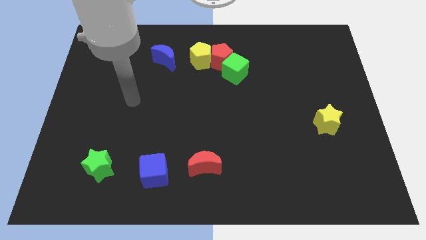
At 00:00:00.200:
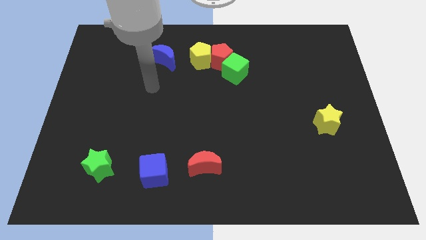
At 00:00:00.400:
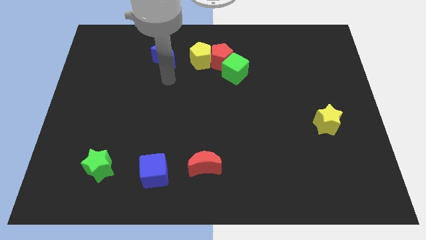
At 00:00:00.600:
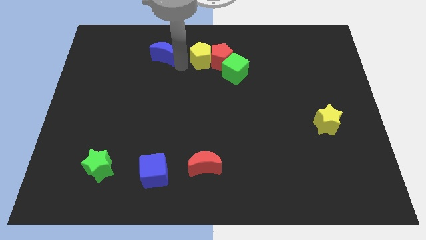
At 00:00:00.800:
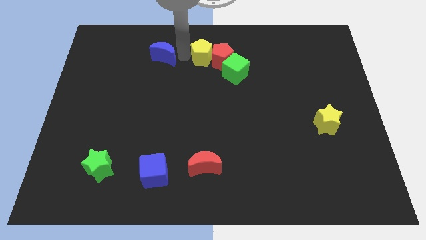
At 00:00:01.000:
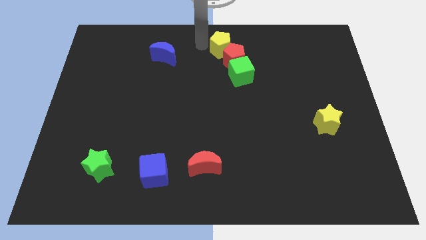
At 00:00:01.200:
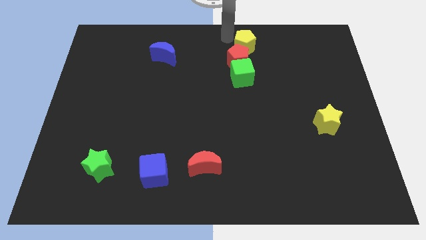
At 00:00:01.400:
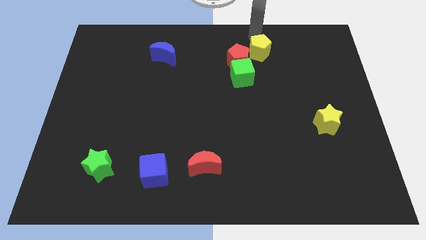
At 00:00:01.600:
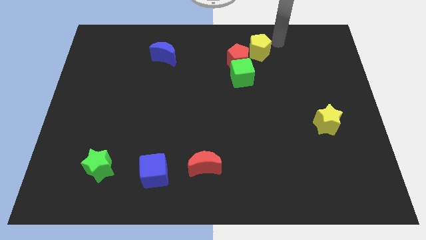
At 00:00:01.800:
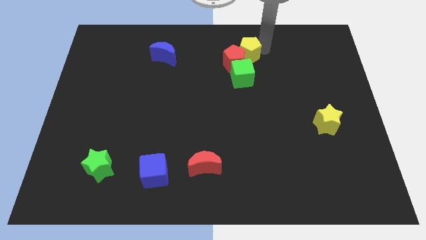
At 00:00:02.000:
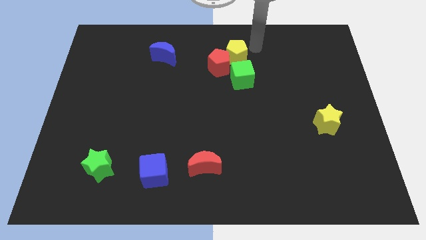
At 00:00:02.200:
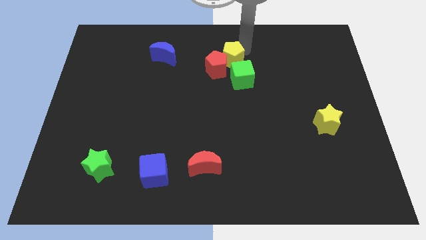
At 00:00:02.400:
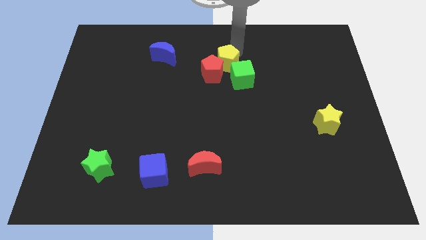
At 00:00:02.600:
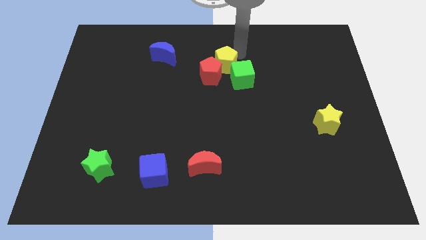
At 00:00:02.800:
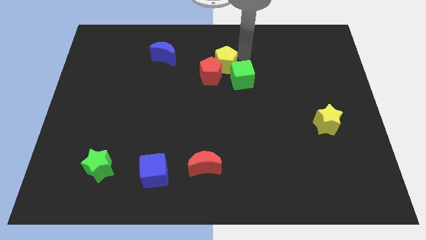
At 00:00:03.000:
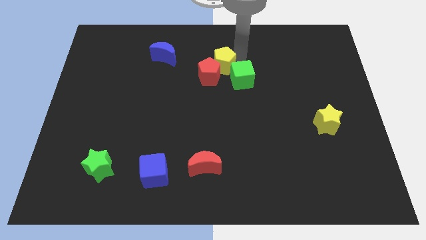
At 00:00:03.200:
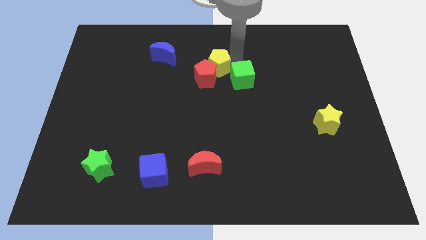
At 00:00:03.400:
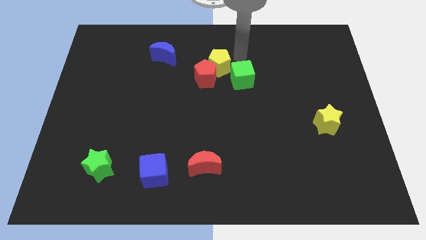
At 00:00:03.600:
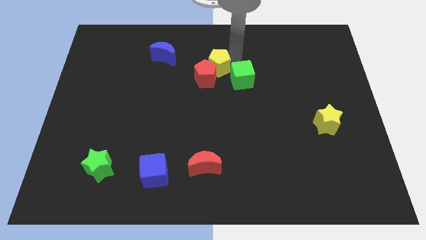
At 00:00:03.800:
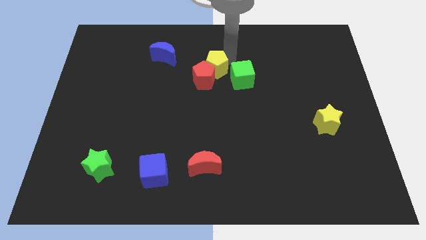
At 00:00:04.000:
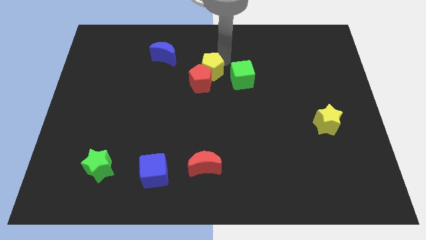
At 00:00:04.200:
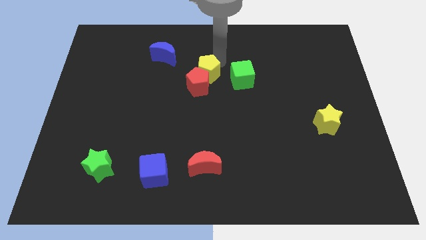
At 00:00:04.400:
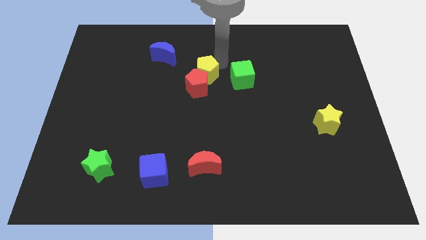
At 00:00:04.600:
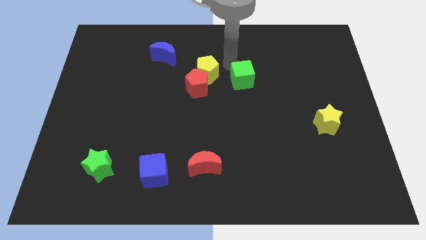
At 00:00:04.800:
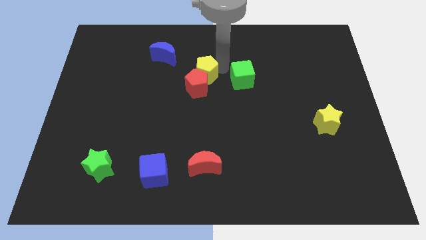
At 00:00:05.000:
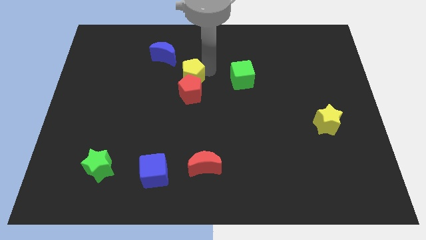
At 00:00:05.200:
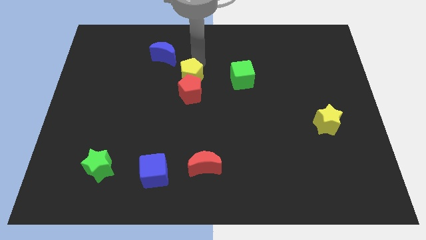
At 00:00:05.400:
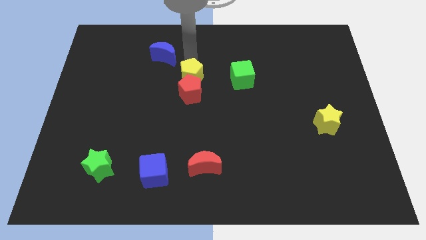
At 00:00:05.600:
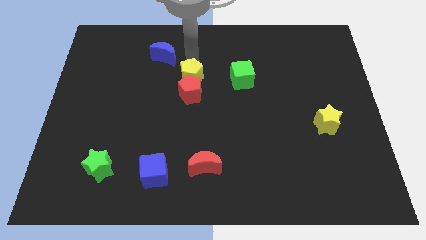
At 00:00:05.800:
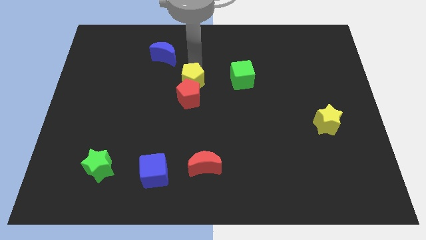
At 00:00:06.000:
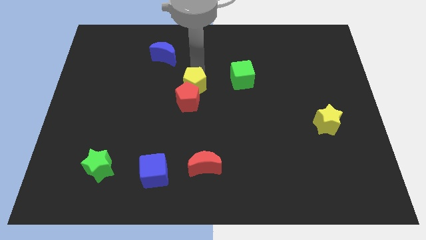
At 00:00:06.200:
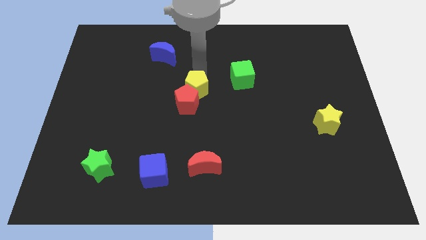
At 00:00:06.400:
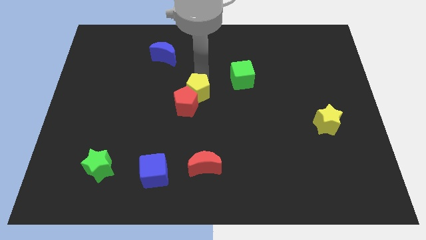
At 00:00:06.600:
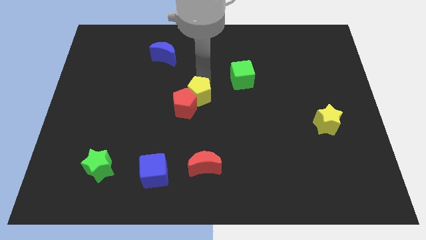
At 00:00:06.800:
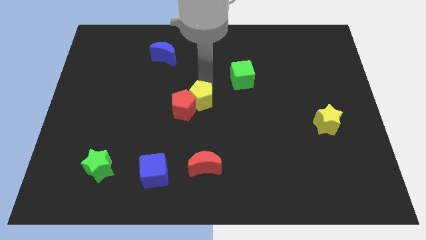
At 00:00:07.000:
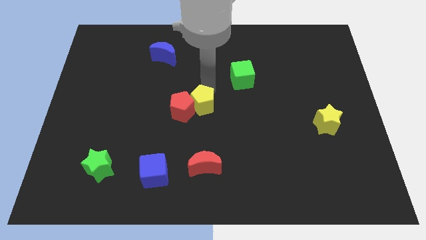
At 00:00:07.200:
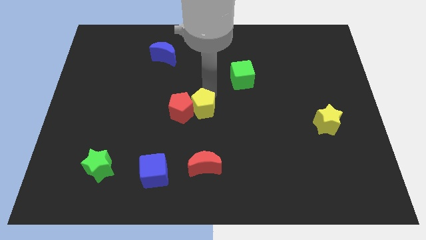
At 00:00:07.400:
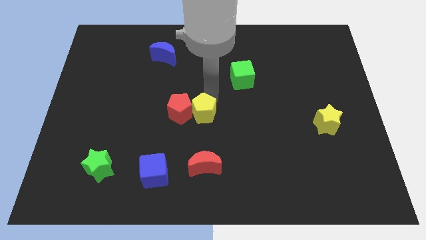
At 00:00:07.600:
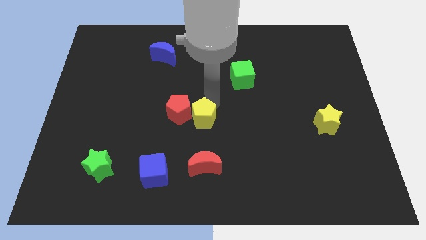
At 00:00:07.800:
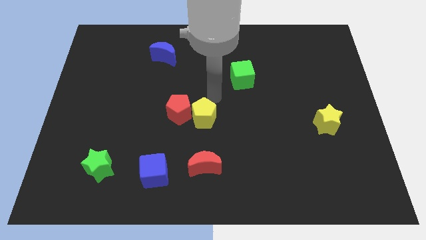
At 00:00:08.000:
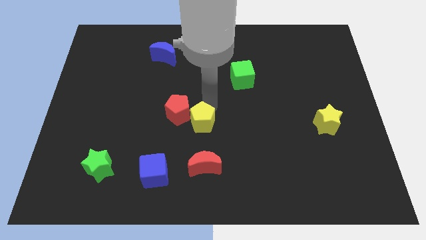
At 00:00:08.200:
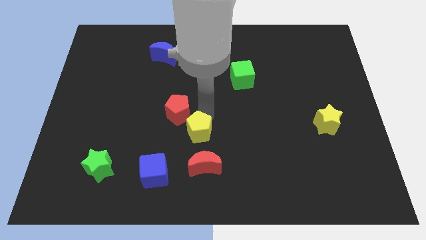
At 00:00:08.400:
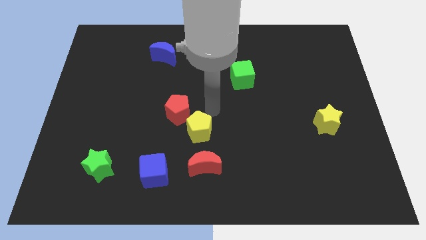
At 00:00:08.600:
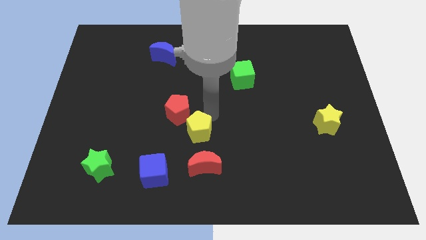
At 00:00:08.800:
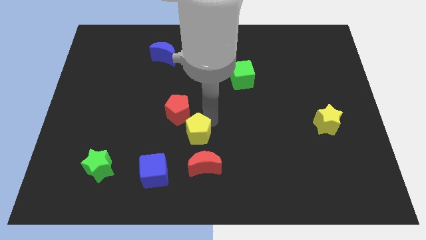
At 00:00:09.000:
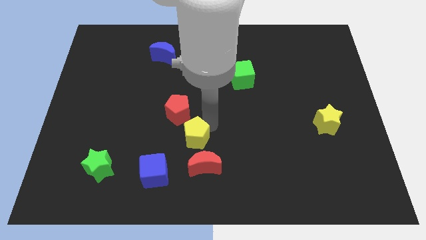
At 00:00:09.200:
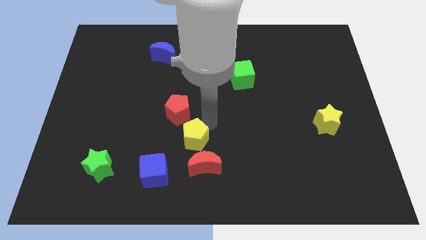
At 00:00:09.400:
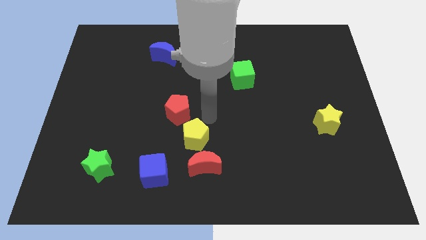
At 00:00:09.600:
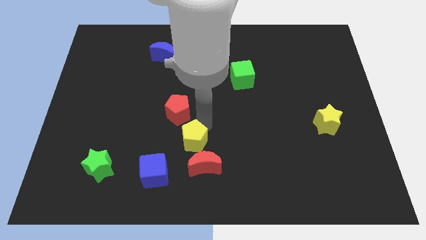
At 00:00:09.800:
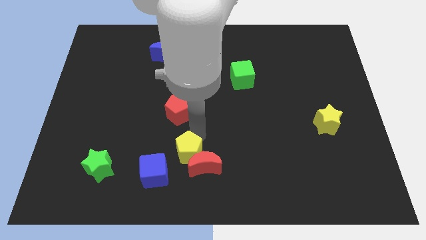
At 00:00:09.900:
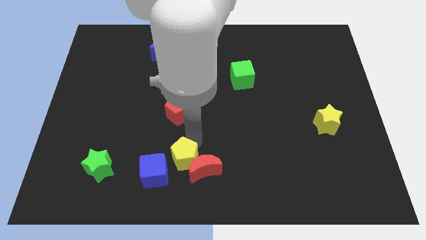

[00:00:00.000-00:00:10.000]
move the yellow pentagon to the bottom side
